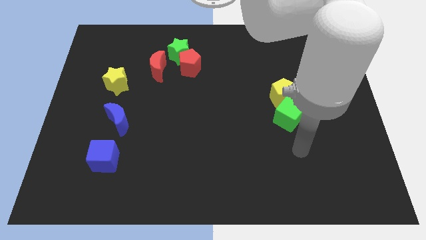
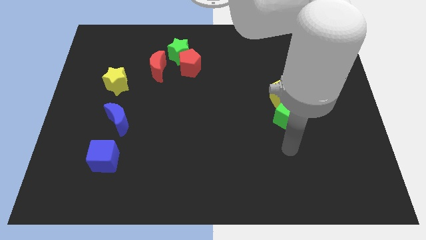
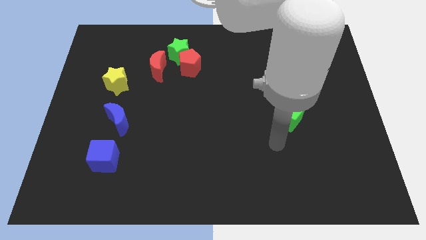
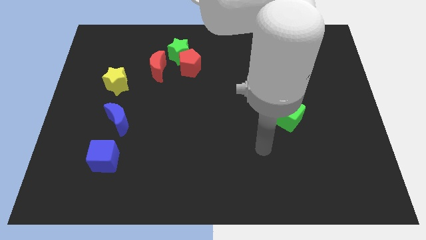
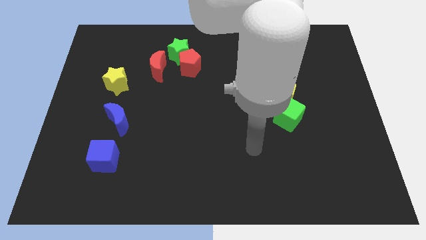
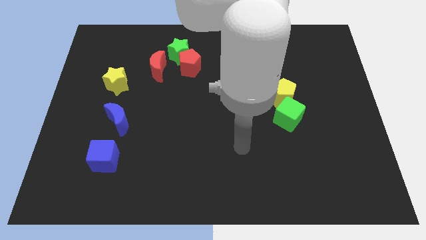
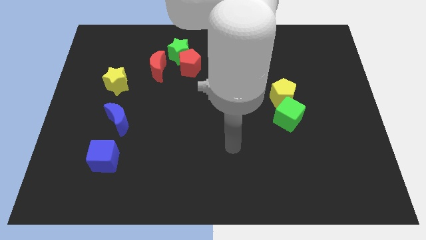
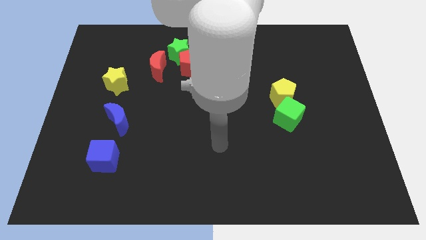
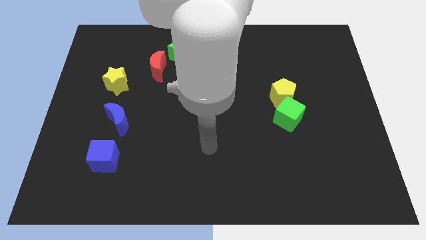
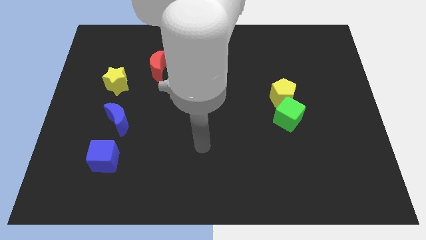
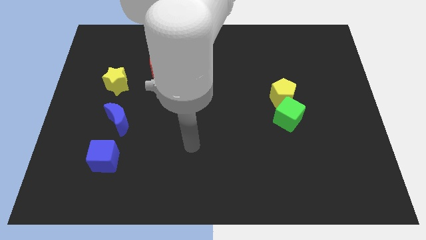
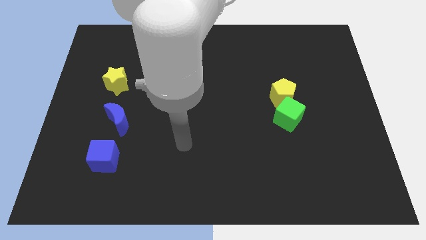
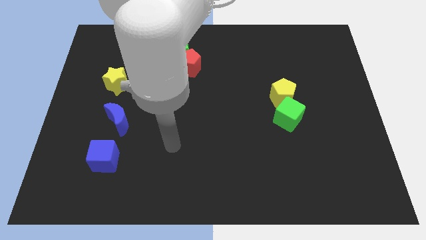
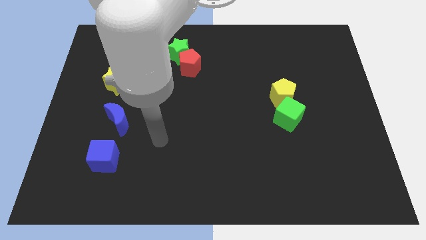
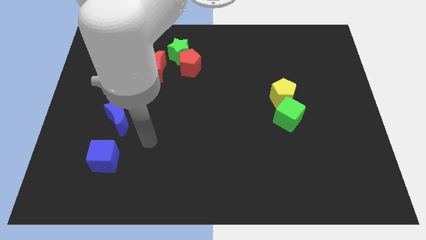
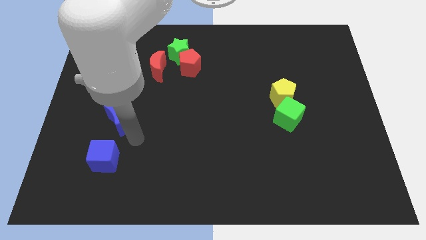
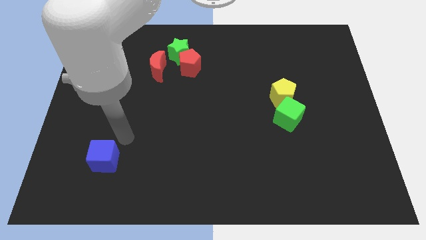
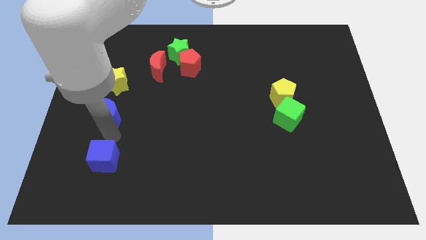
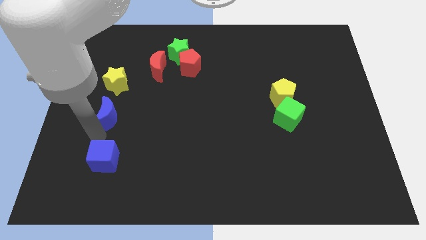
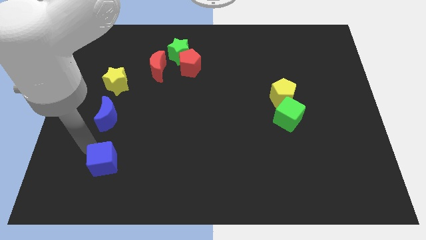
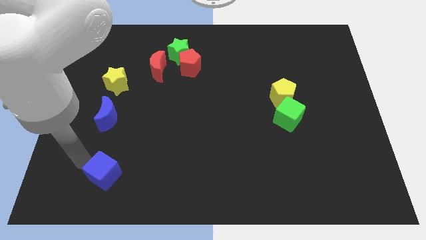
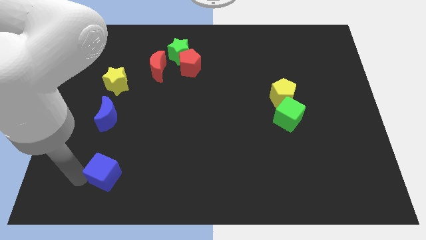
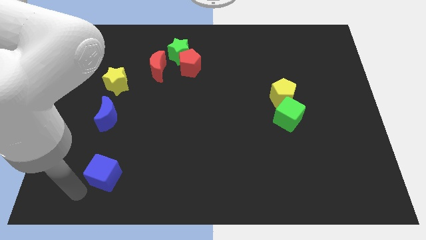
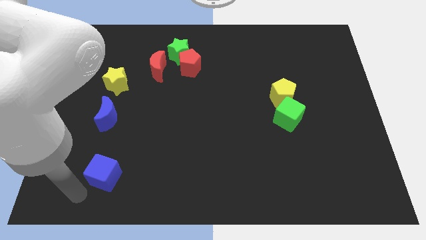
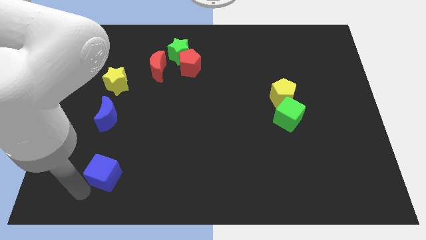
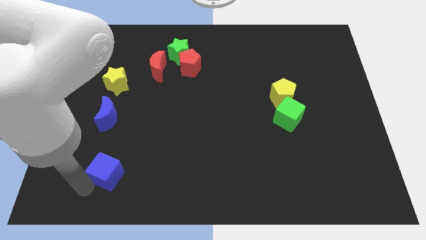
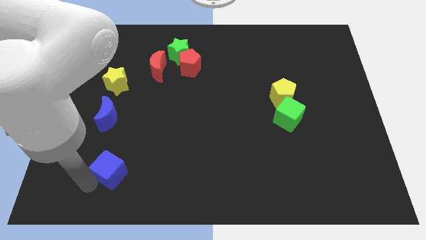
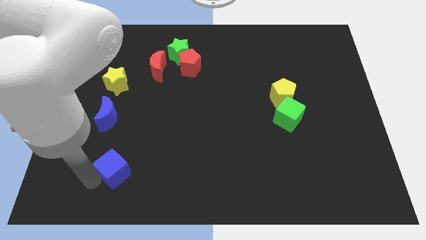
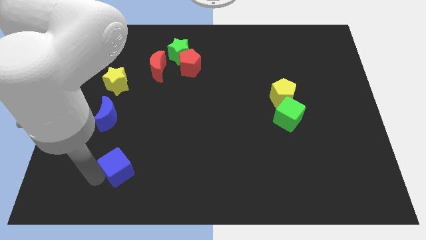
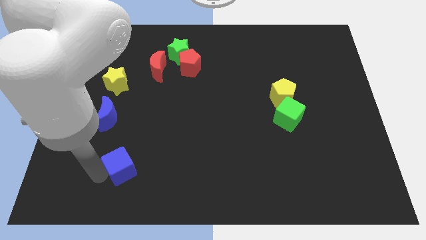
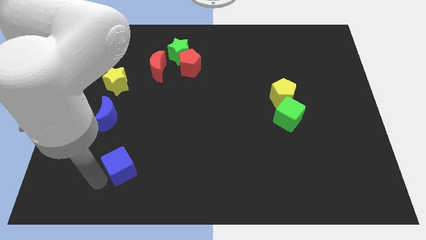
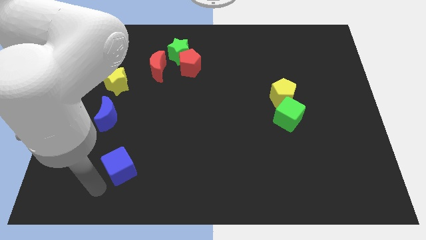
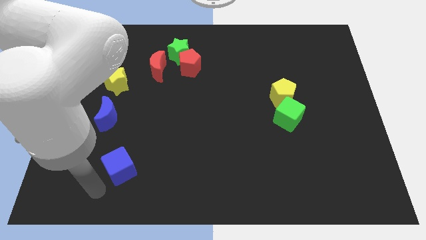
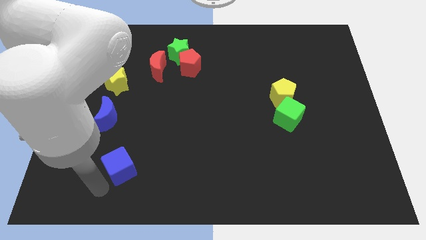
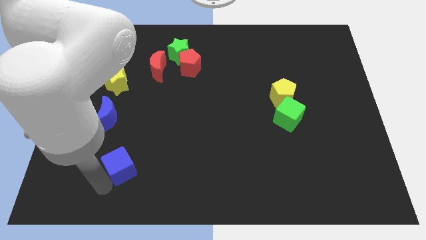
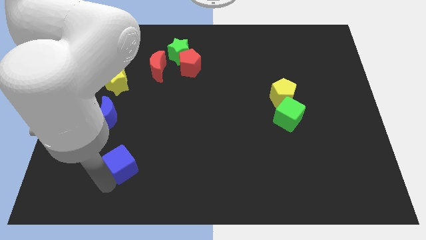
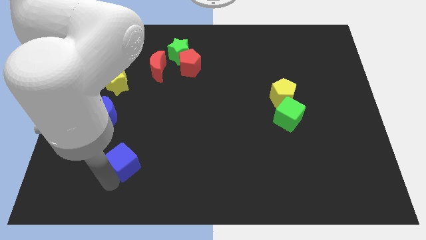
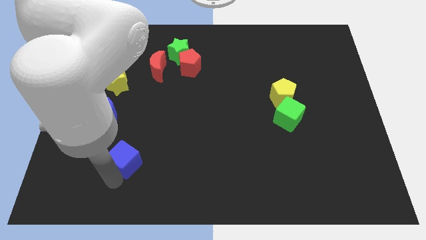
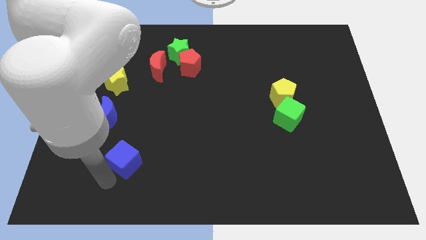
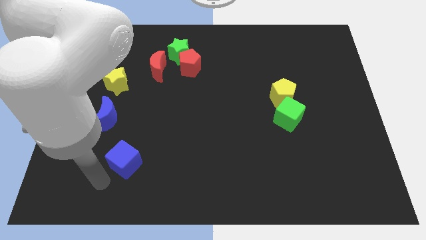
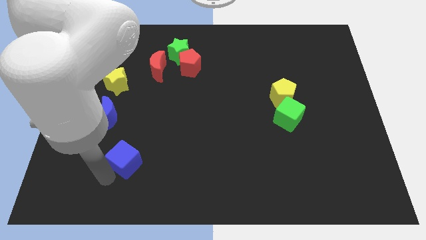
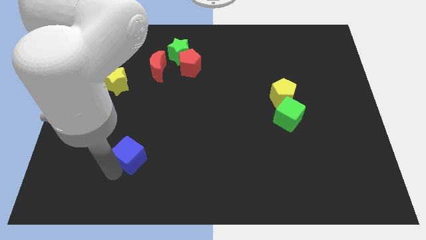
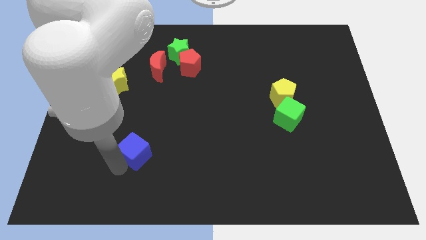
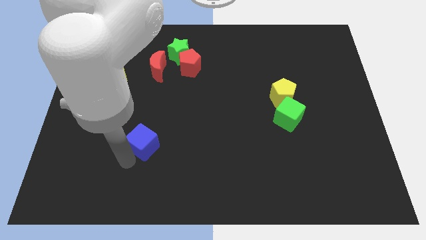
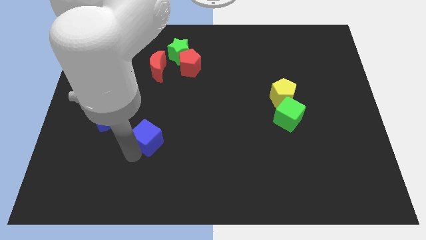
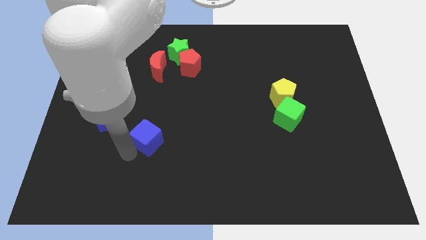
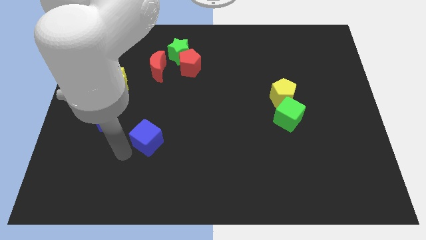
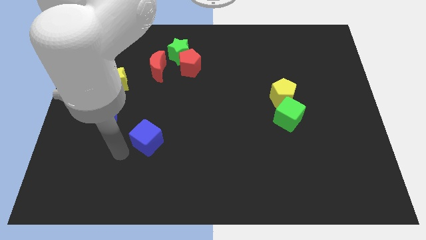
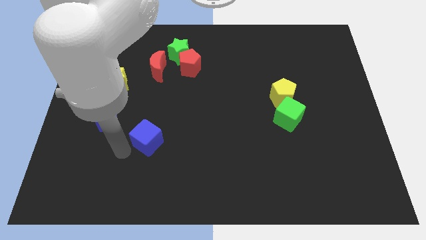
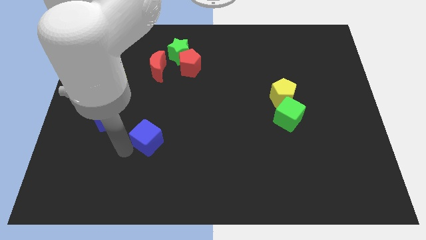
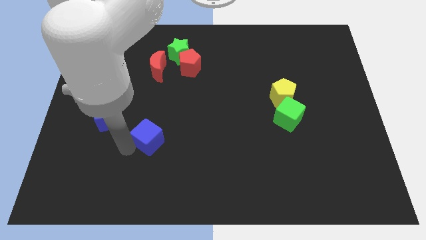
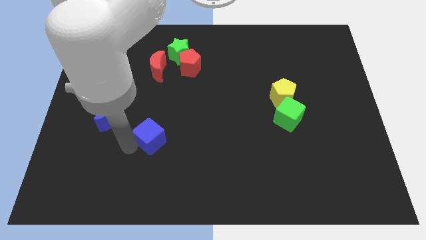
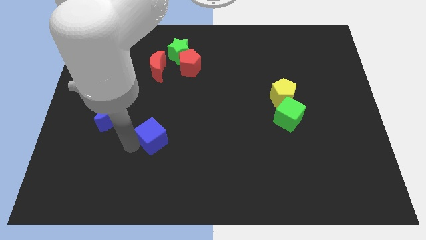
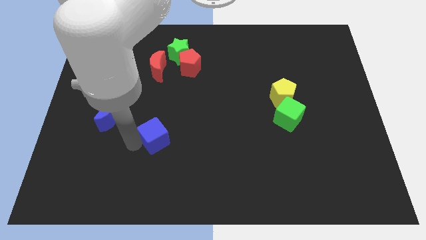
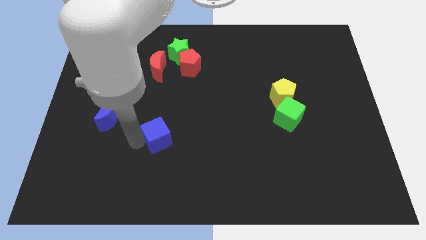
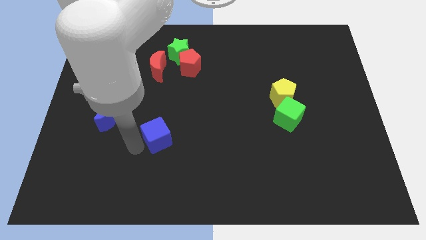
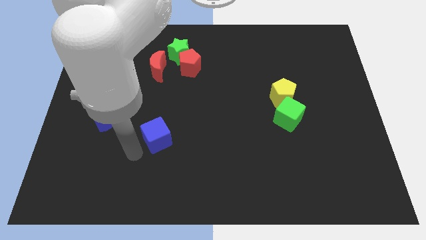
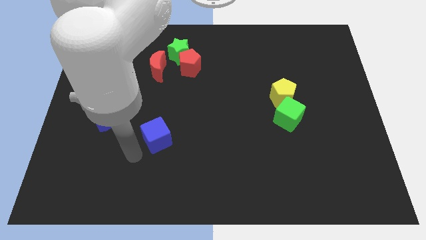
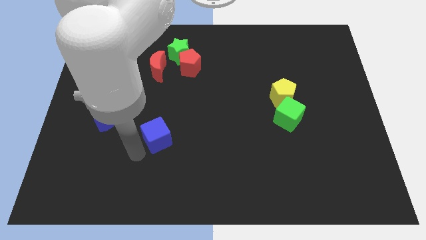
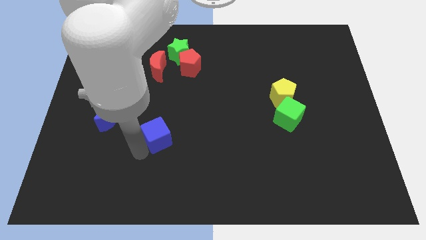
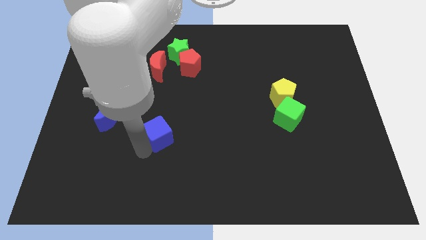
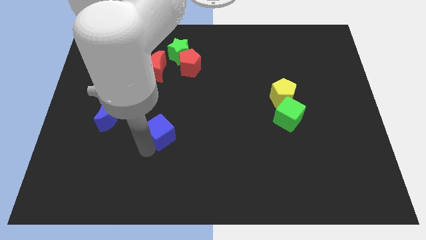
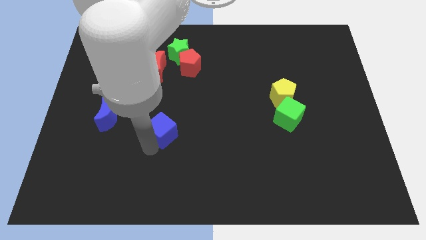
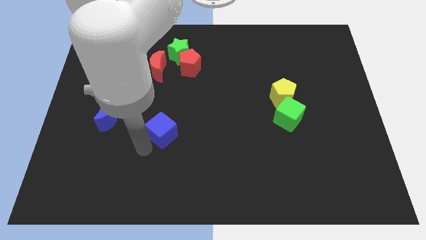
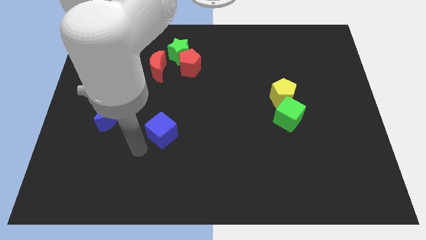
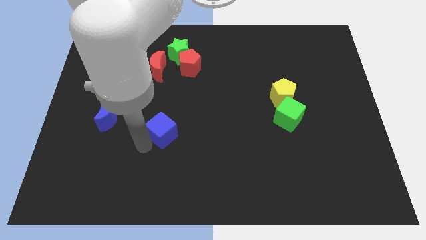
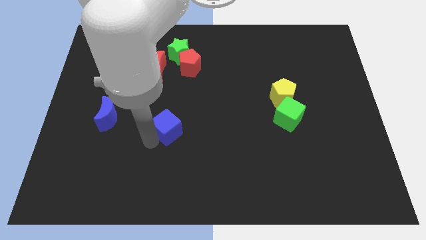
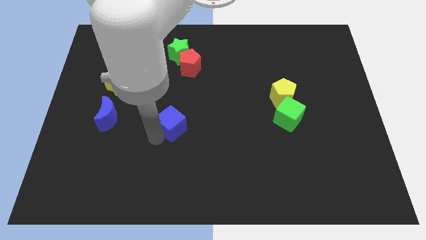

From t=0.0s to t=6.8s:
move the blue cube to the center
